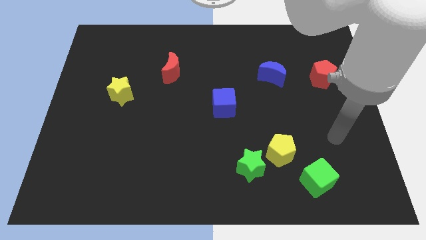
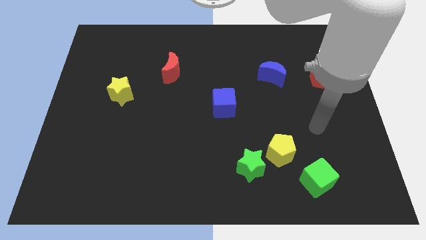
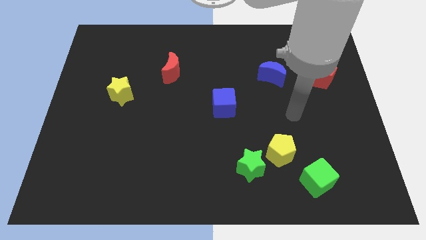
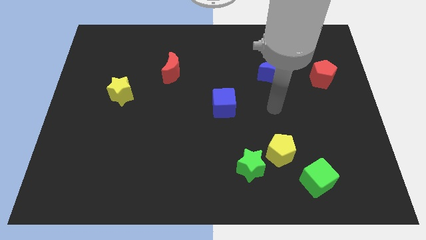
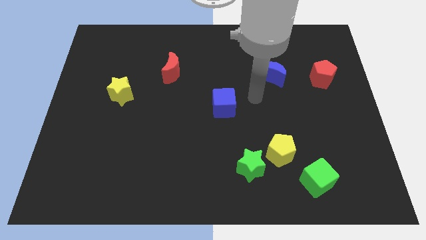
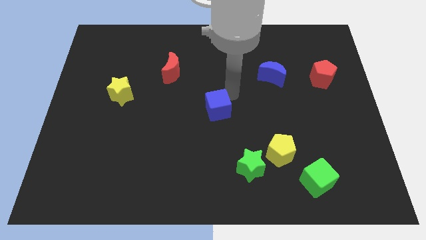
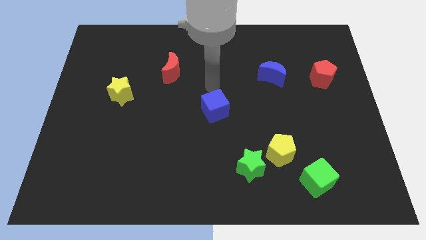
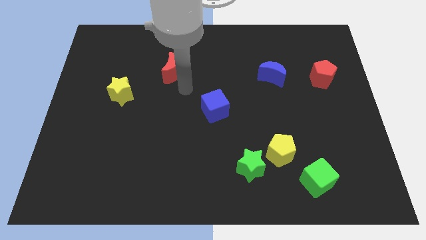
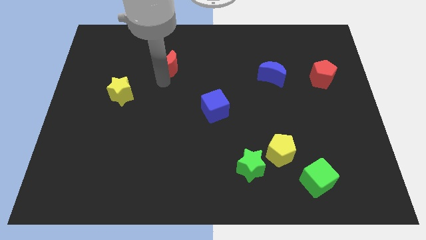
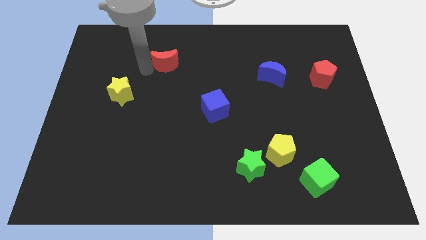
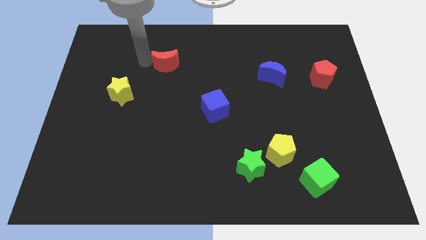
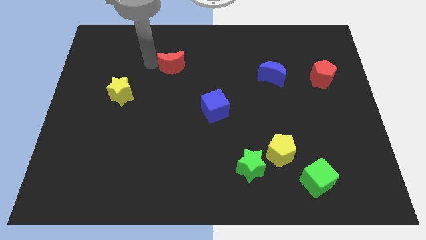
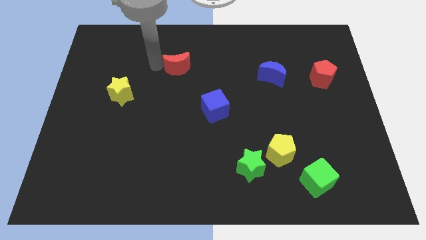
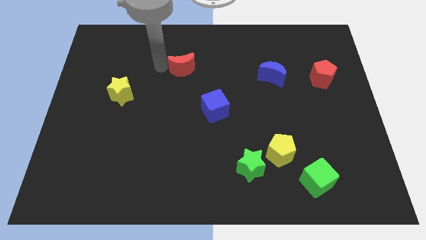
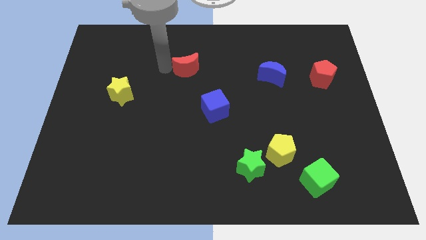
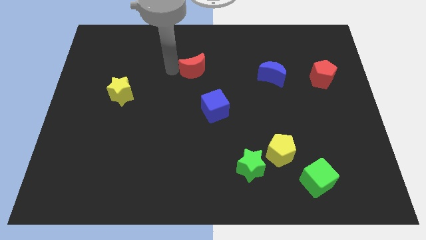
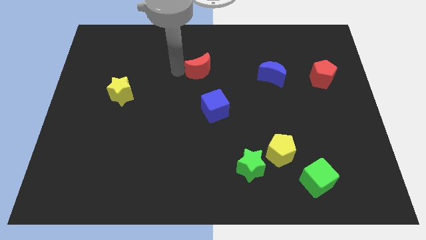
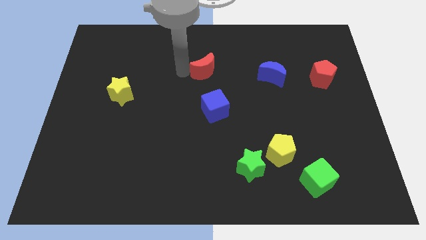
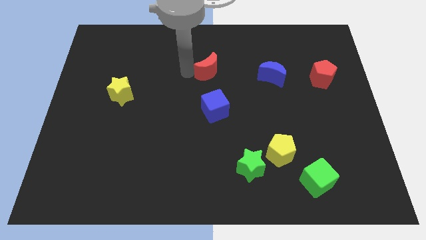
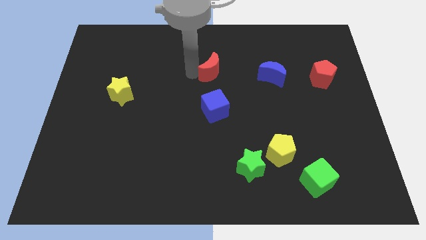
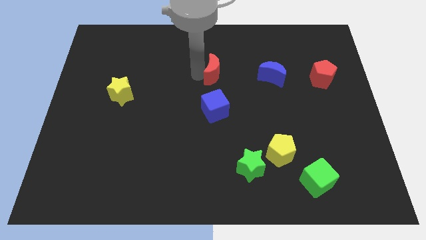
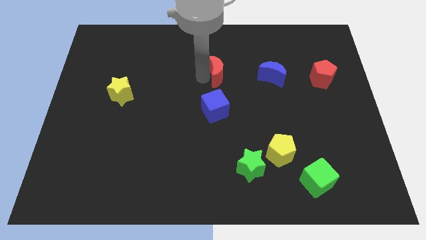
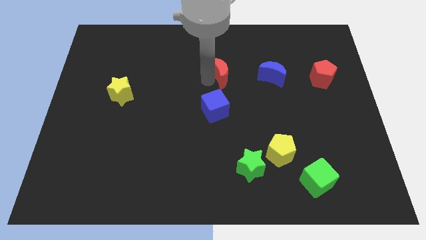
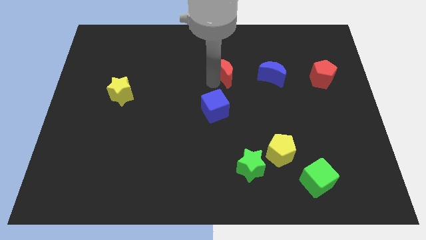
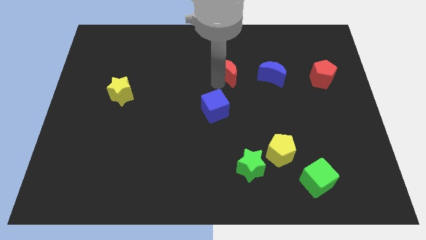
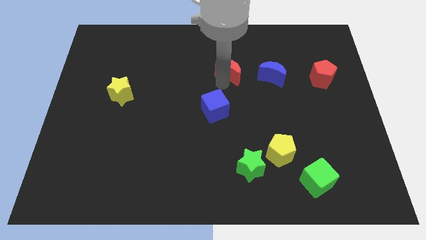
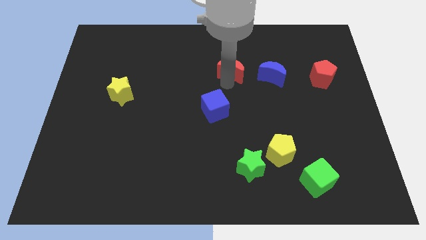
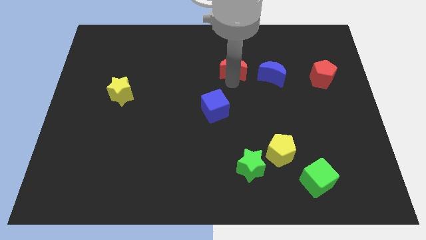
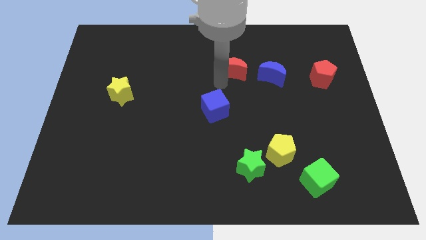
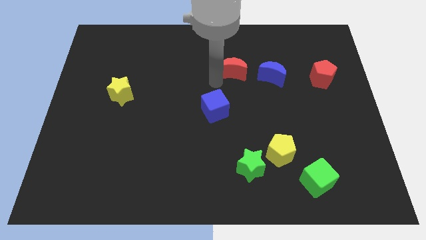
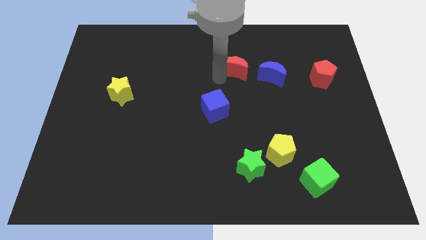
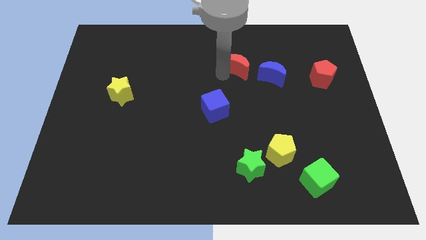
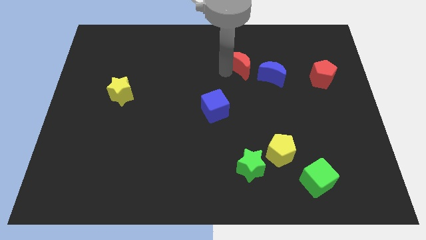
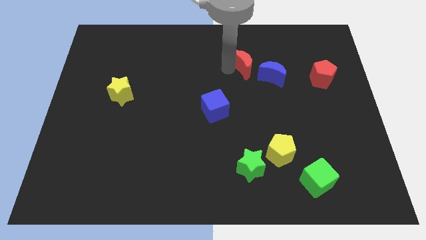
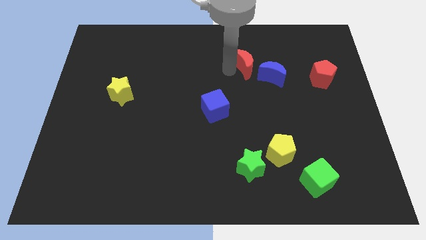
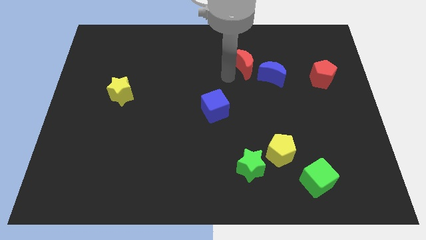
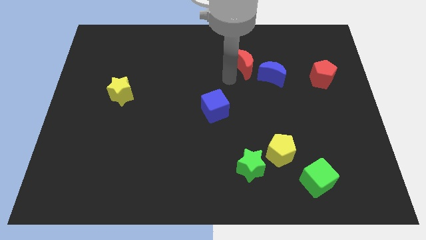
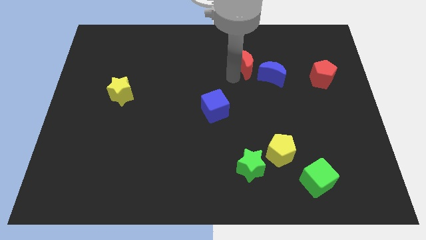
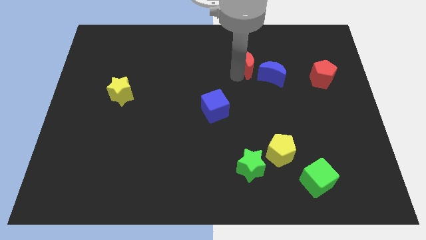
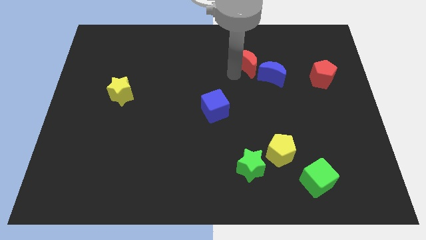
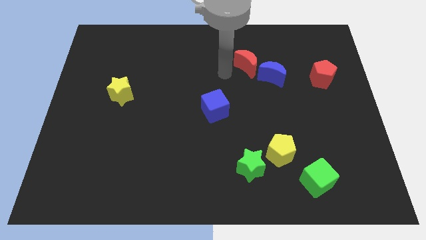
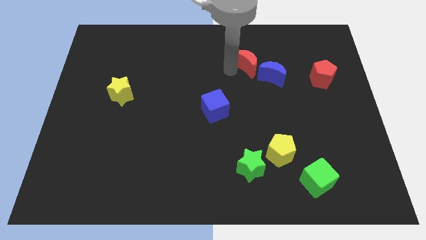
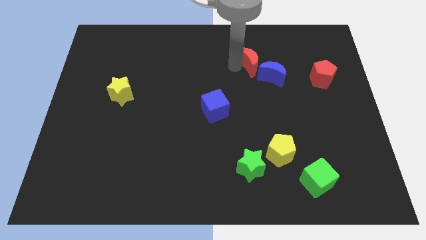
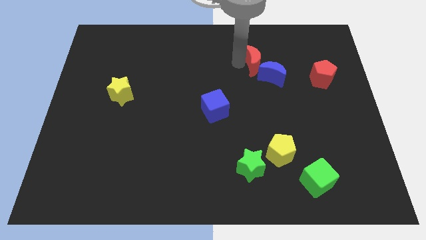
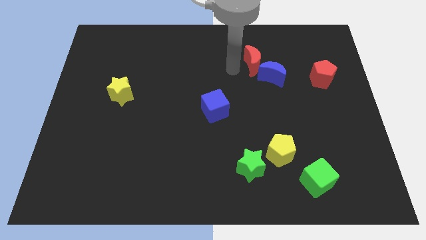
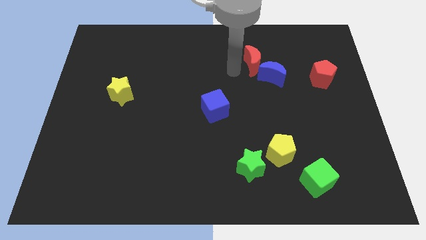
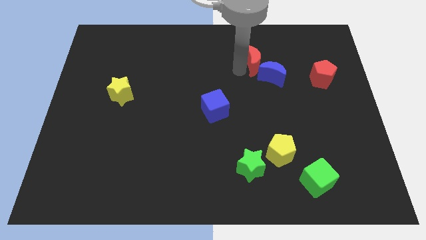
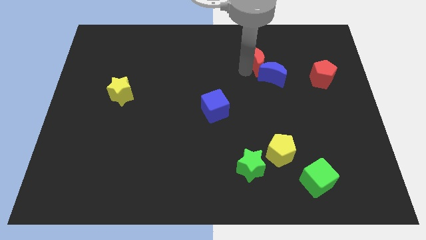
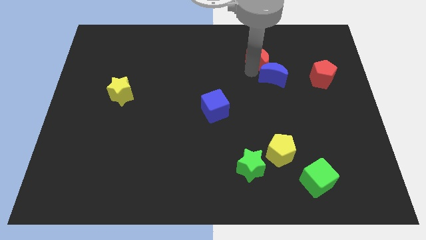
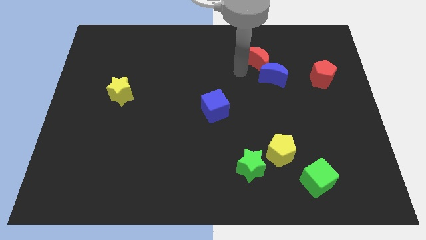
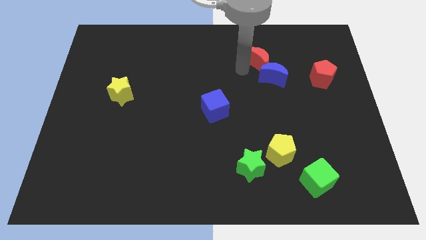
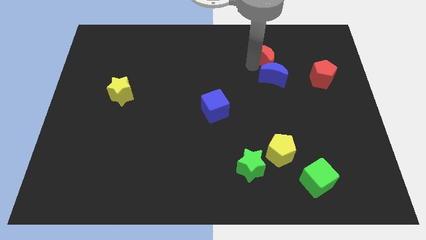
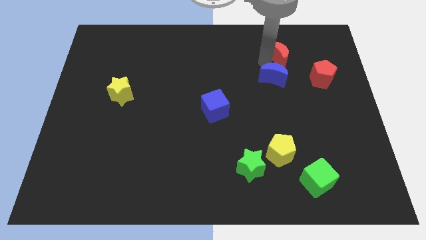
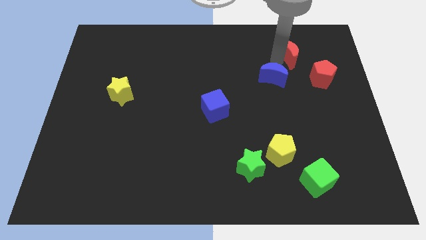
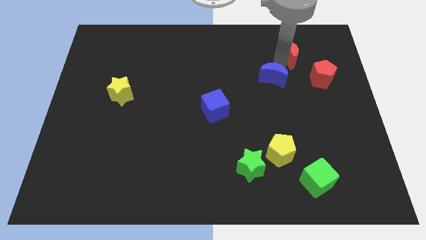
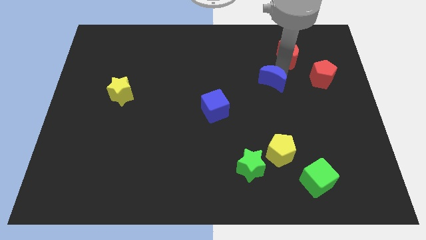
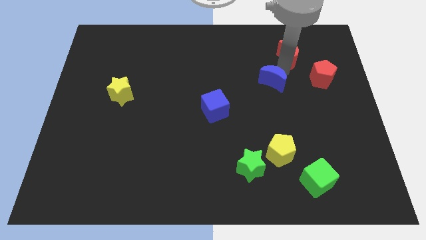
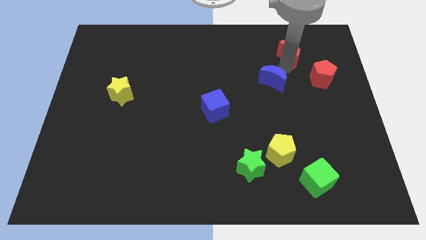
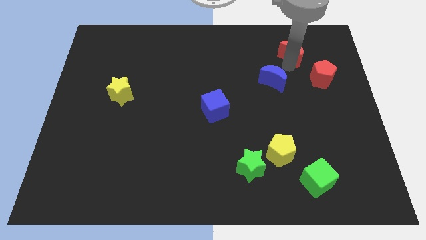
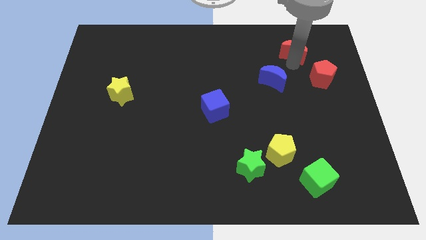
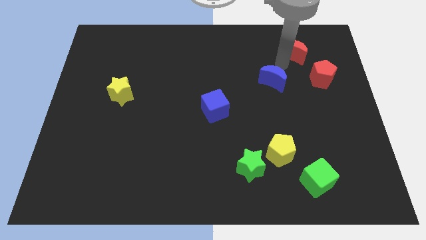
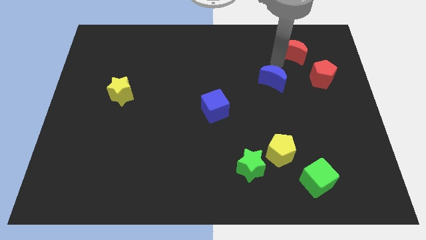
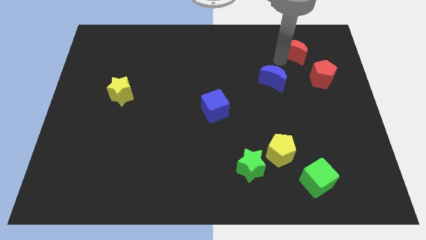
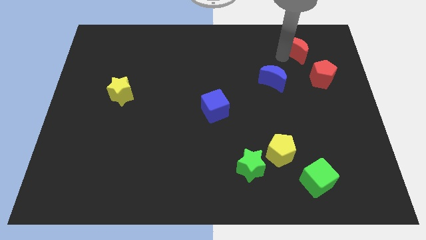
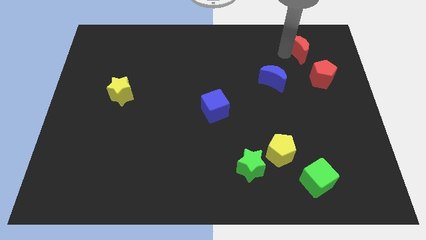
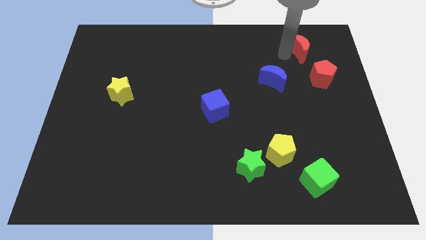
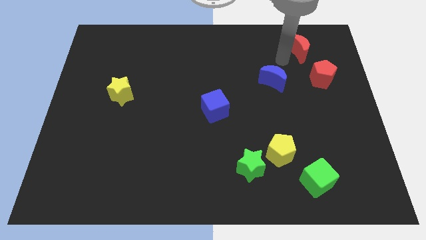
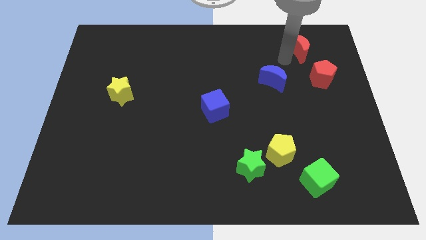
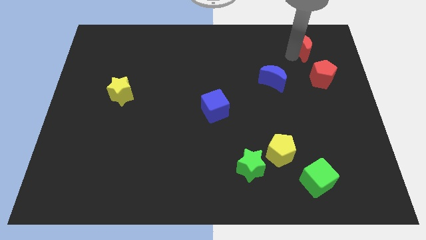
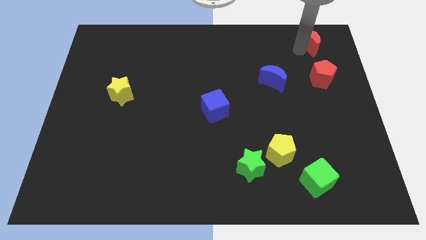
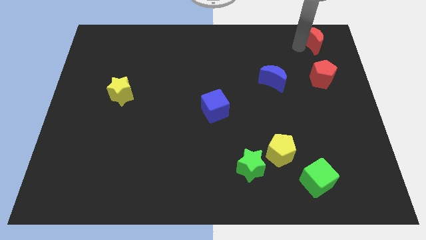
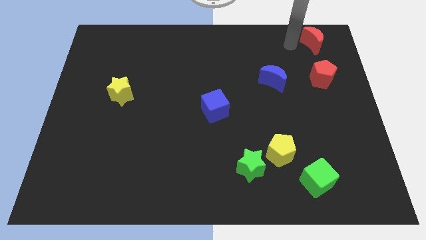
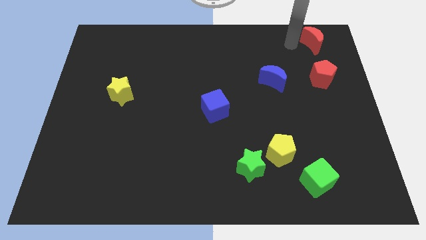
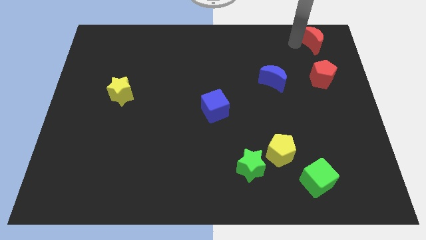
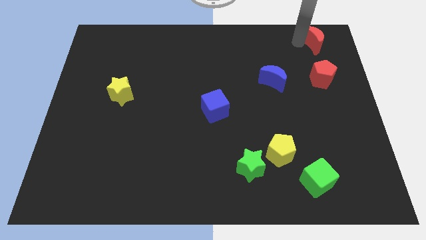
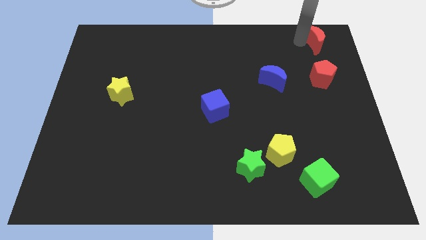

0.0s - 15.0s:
move the red moon to the top right of the board
